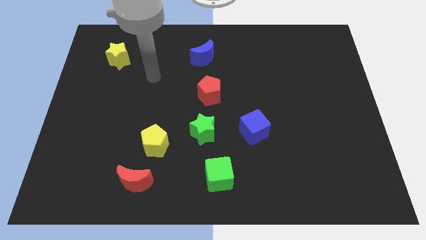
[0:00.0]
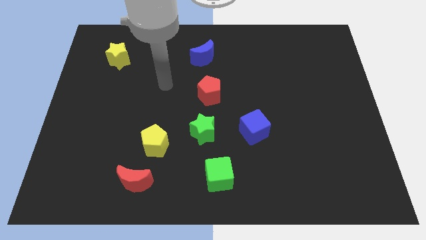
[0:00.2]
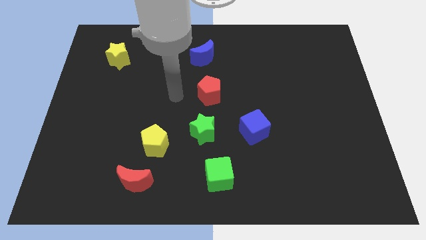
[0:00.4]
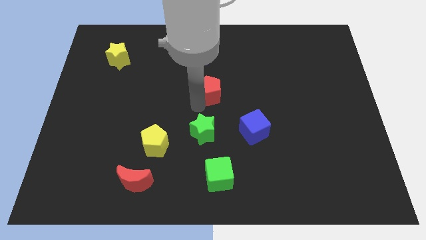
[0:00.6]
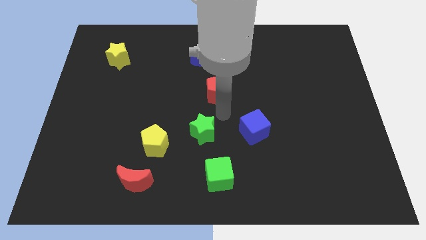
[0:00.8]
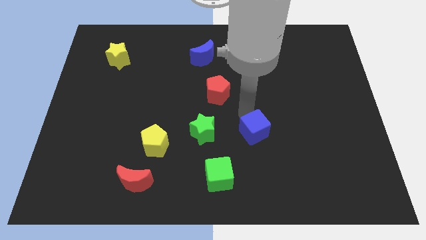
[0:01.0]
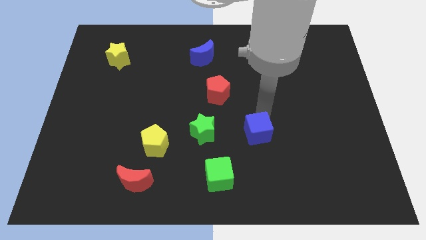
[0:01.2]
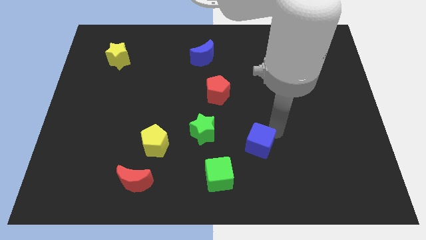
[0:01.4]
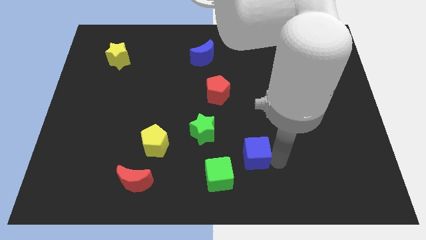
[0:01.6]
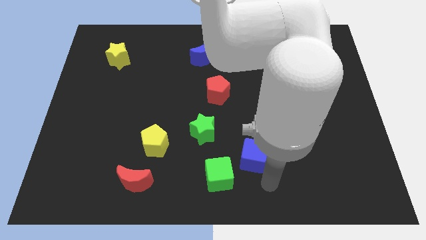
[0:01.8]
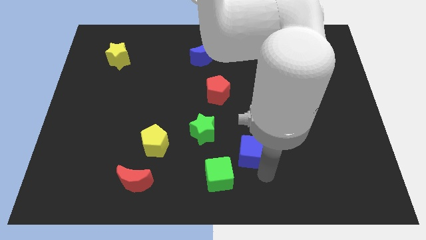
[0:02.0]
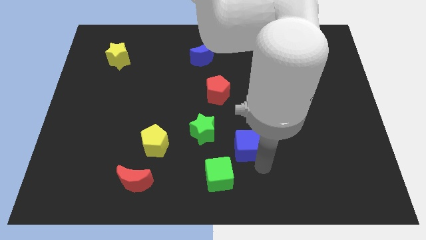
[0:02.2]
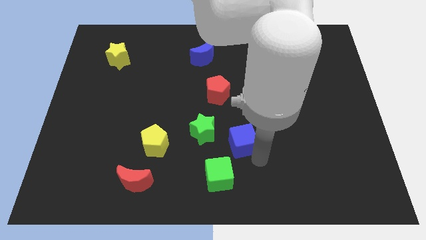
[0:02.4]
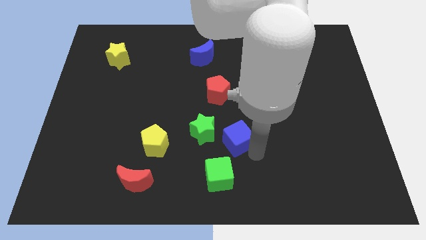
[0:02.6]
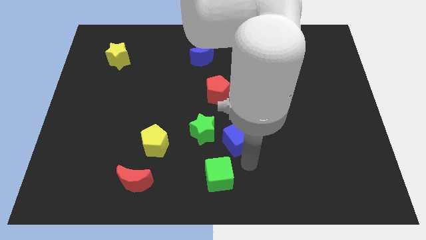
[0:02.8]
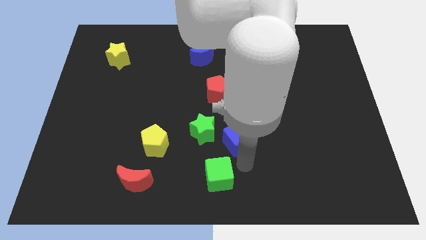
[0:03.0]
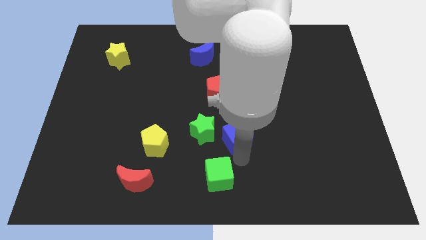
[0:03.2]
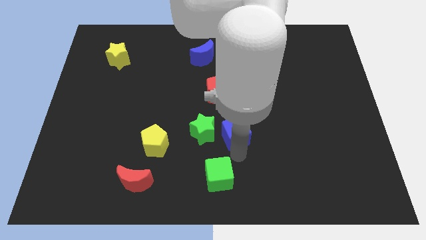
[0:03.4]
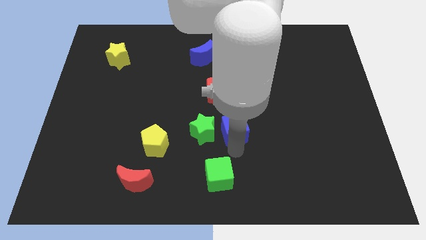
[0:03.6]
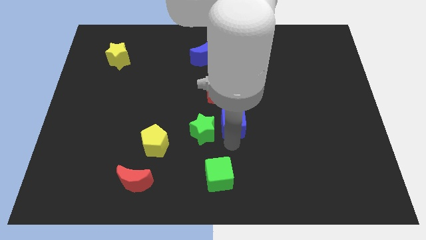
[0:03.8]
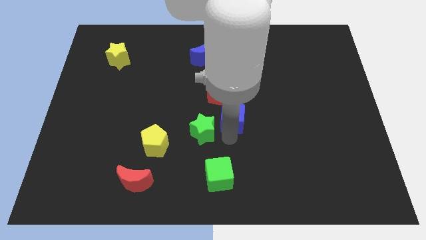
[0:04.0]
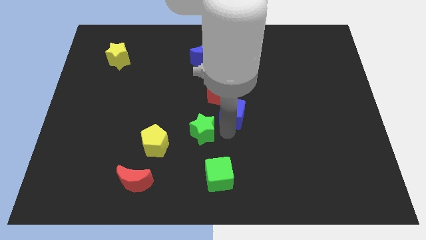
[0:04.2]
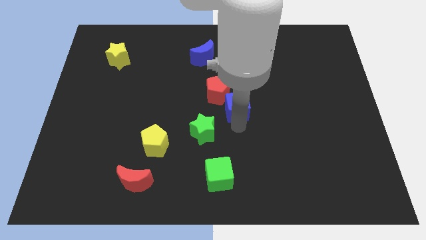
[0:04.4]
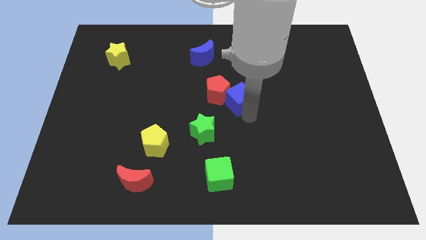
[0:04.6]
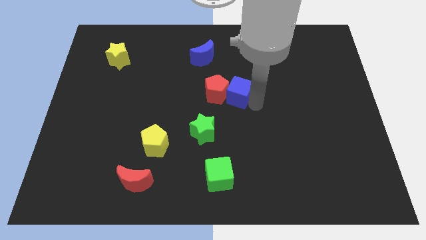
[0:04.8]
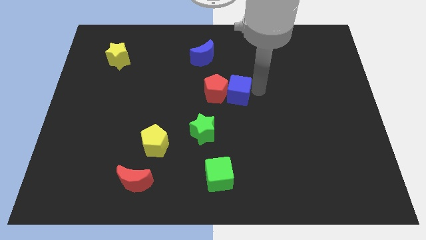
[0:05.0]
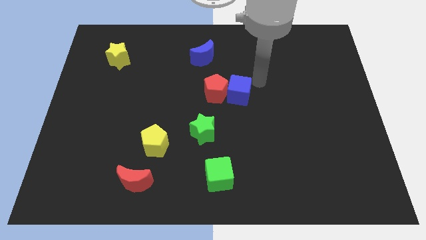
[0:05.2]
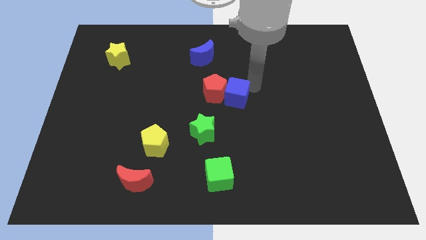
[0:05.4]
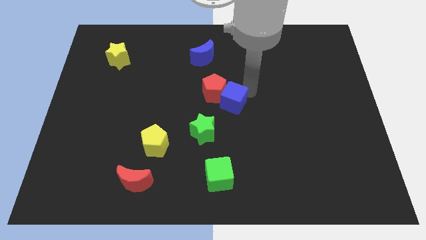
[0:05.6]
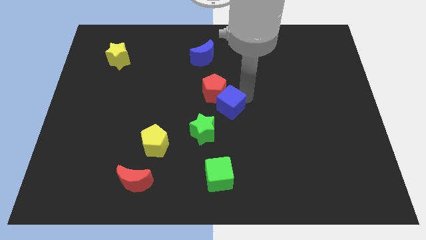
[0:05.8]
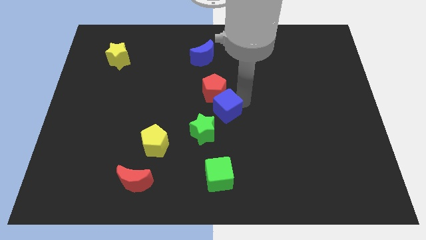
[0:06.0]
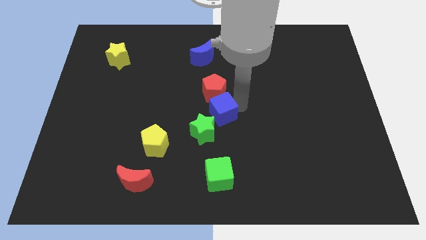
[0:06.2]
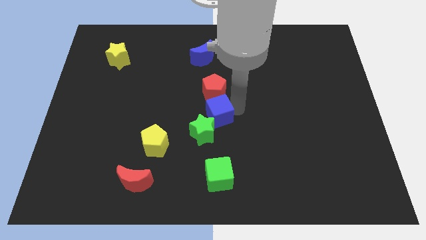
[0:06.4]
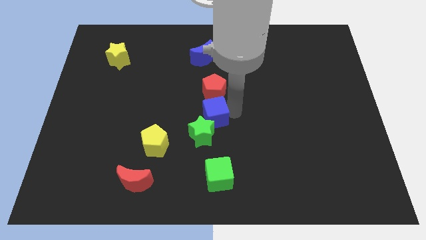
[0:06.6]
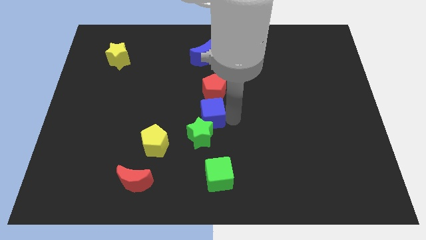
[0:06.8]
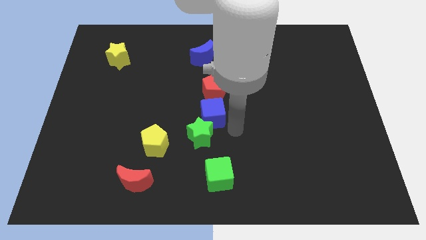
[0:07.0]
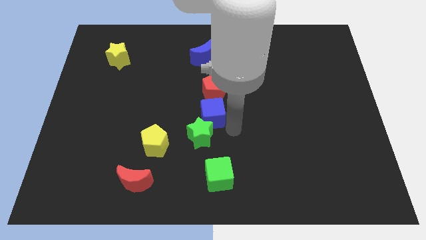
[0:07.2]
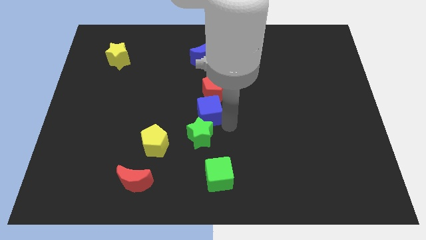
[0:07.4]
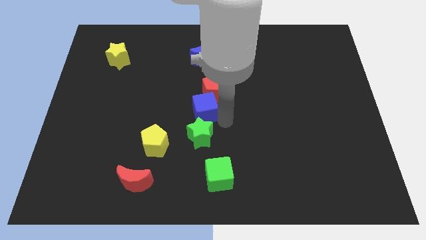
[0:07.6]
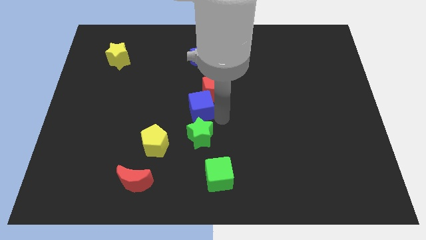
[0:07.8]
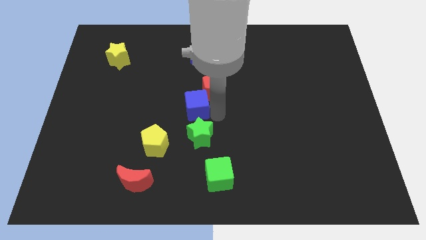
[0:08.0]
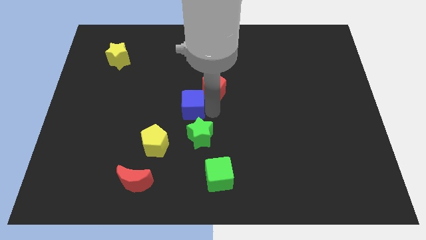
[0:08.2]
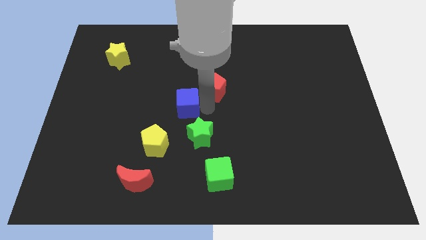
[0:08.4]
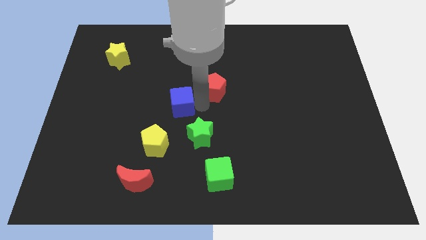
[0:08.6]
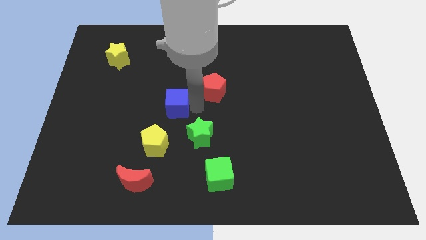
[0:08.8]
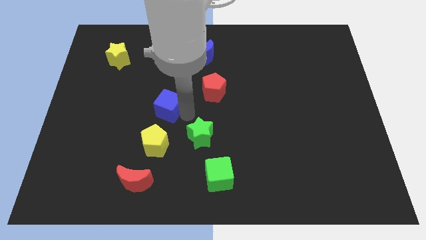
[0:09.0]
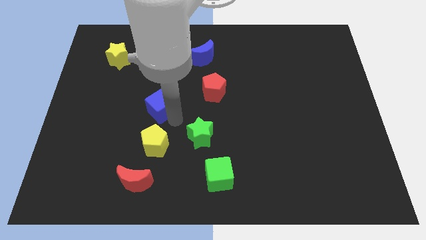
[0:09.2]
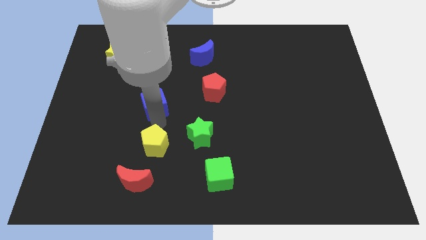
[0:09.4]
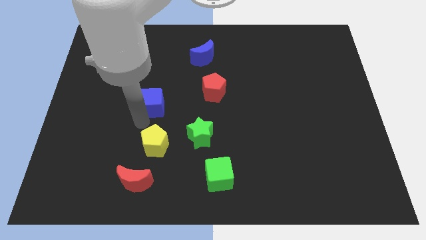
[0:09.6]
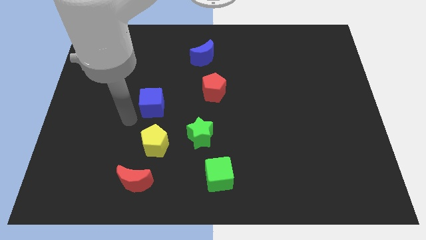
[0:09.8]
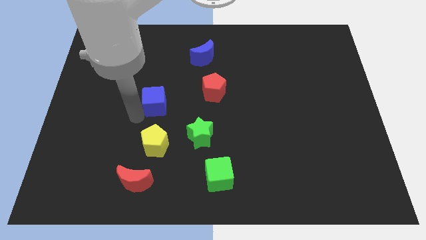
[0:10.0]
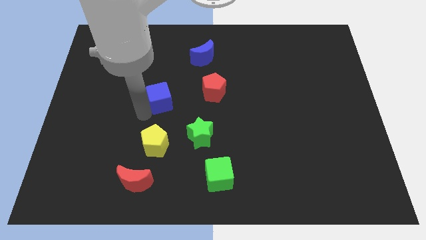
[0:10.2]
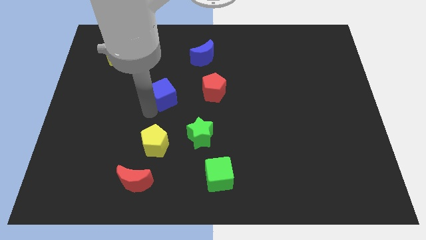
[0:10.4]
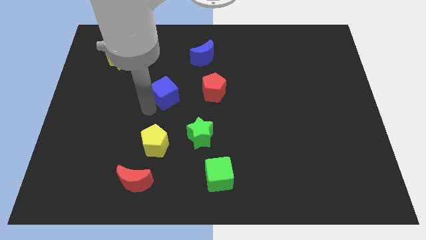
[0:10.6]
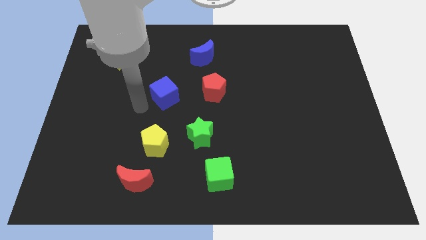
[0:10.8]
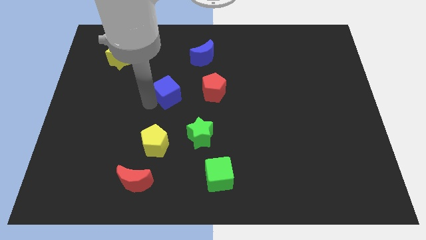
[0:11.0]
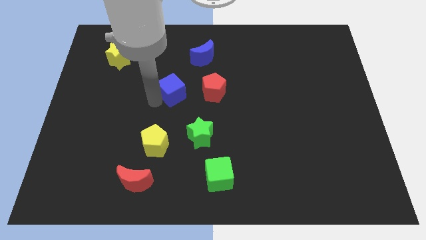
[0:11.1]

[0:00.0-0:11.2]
push the blue cube diagonally upwards and left

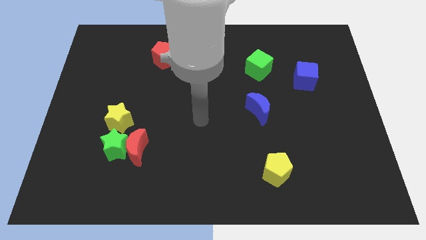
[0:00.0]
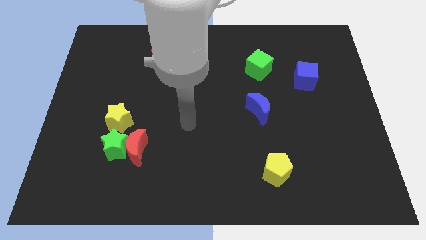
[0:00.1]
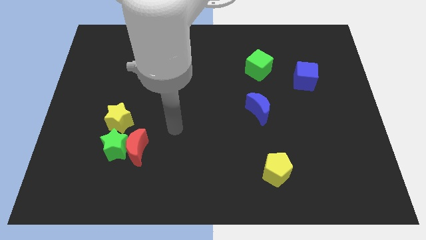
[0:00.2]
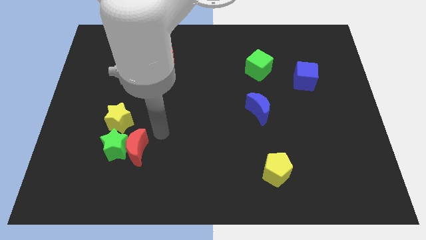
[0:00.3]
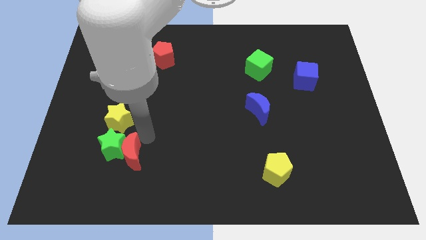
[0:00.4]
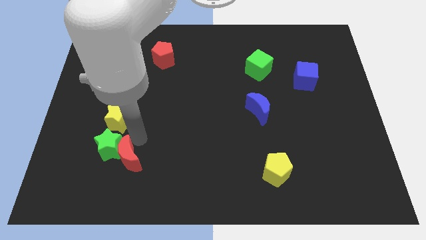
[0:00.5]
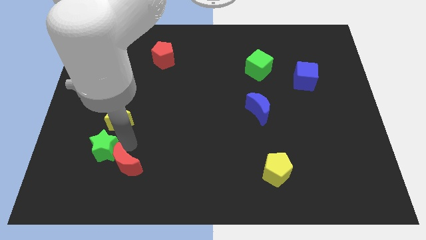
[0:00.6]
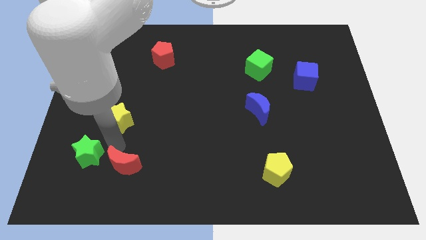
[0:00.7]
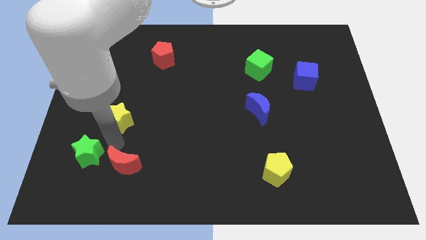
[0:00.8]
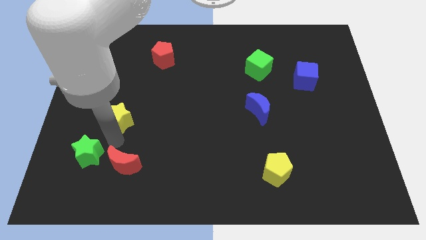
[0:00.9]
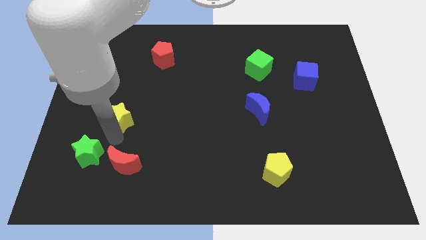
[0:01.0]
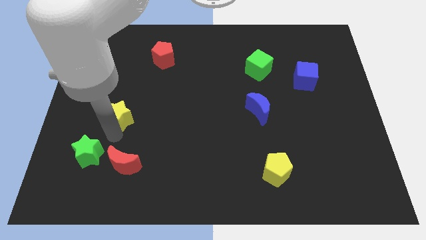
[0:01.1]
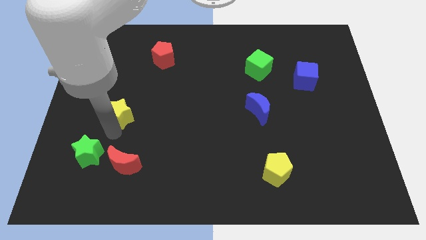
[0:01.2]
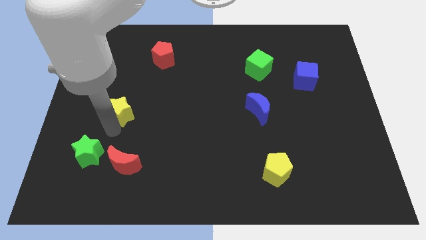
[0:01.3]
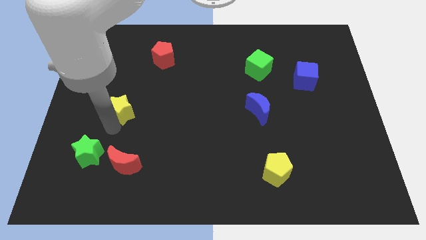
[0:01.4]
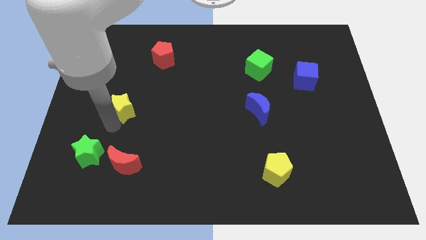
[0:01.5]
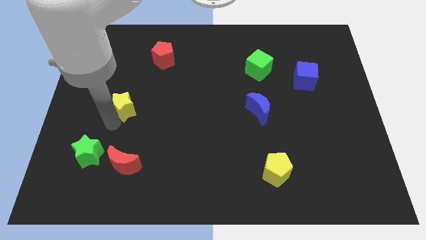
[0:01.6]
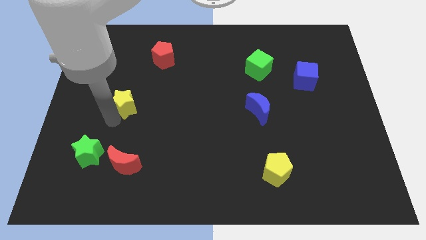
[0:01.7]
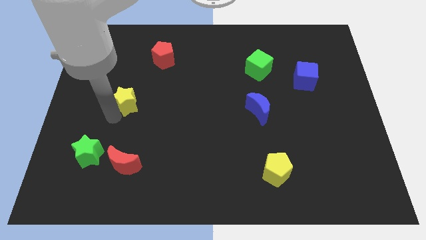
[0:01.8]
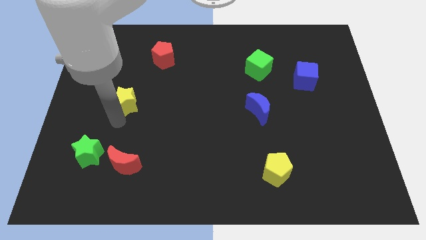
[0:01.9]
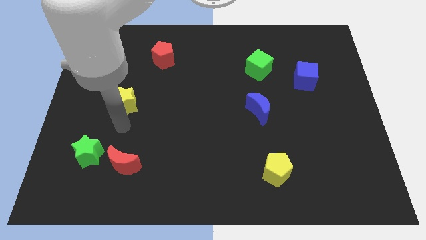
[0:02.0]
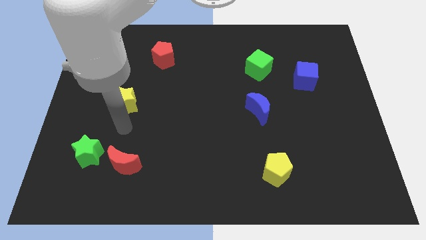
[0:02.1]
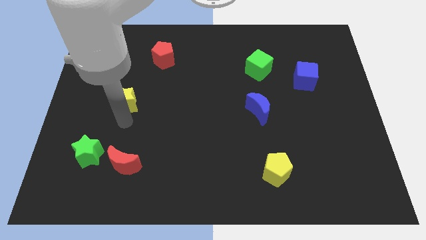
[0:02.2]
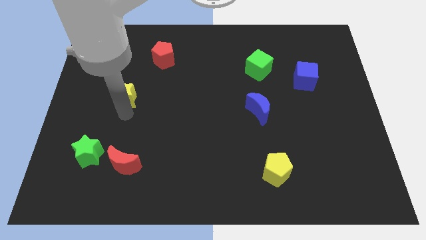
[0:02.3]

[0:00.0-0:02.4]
move the yellow star upwards a little bit
